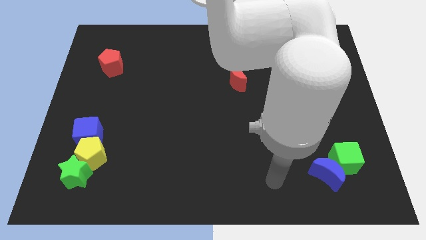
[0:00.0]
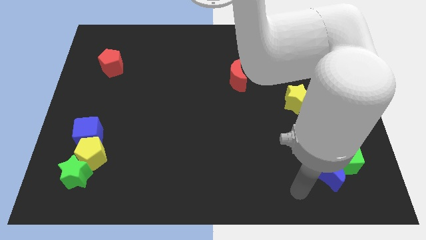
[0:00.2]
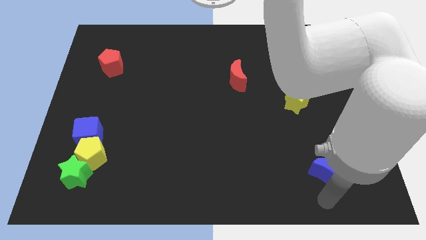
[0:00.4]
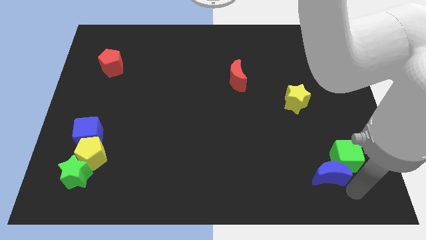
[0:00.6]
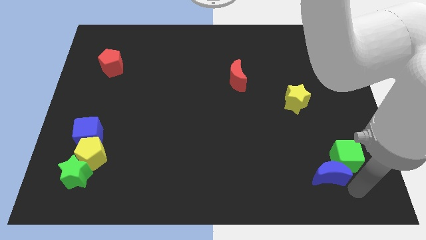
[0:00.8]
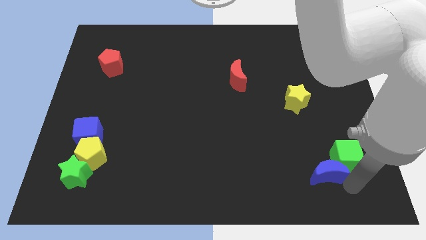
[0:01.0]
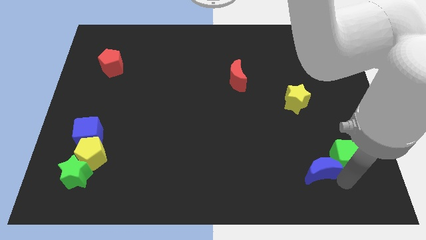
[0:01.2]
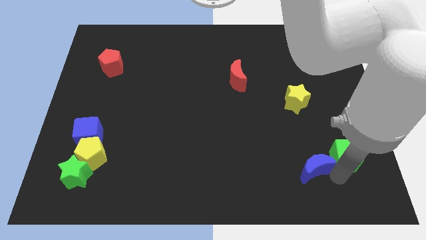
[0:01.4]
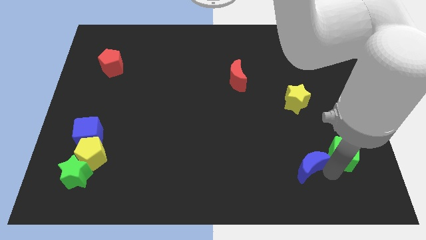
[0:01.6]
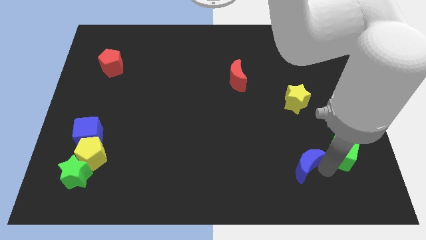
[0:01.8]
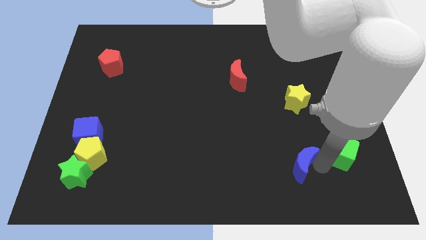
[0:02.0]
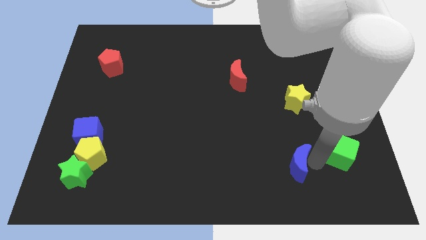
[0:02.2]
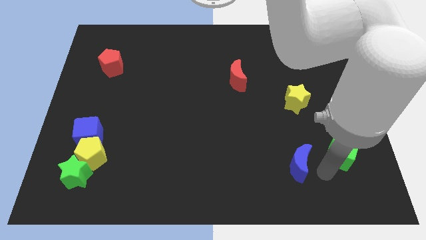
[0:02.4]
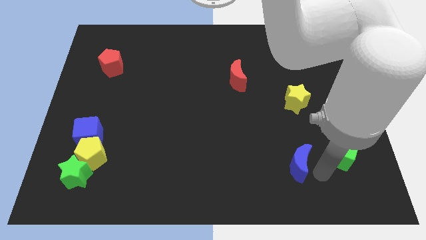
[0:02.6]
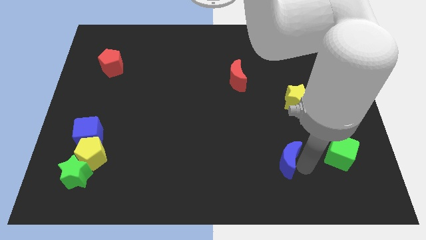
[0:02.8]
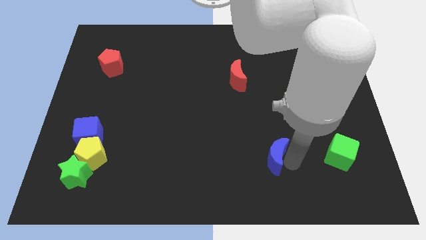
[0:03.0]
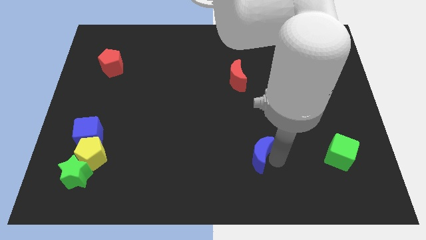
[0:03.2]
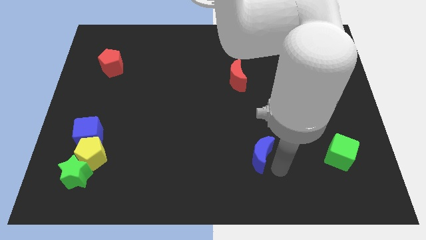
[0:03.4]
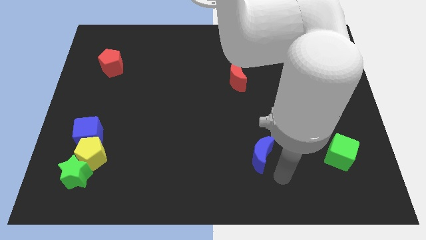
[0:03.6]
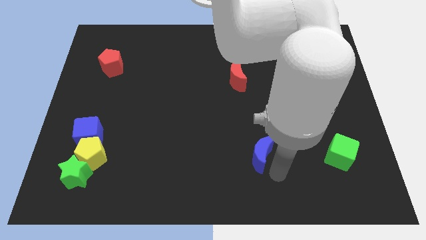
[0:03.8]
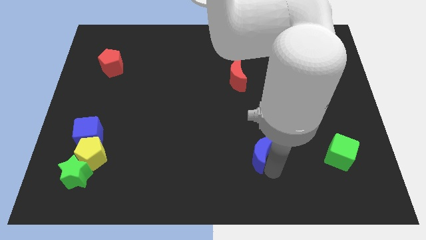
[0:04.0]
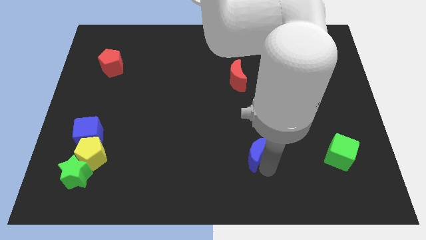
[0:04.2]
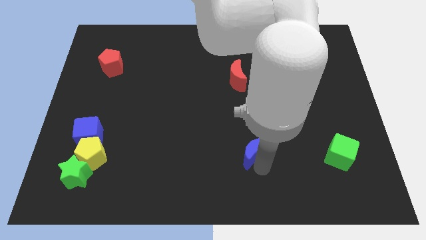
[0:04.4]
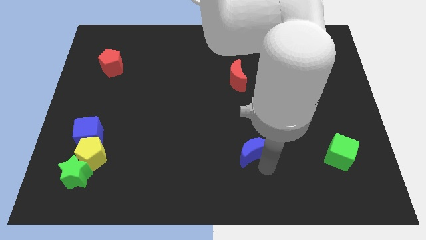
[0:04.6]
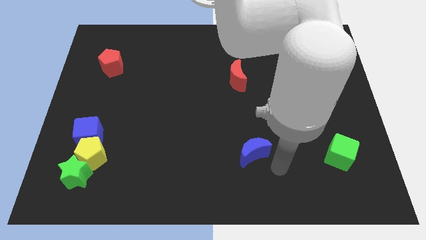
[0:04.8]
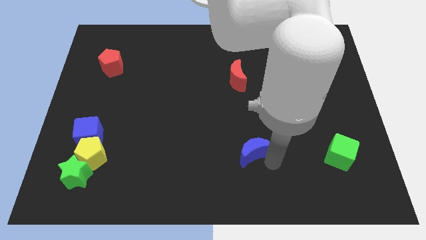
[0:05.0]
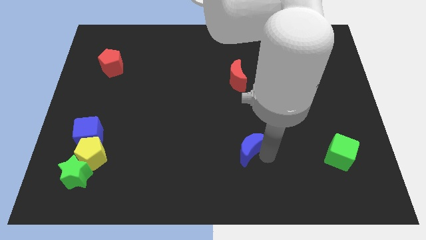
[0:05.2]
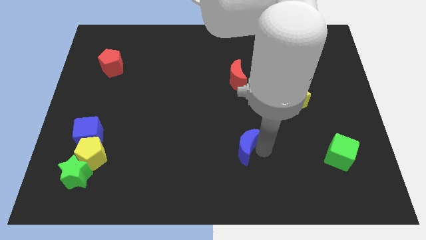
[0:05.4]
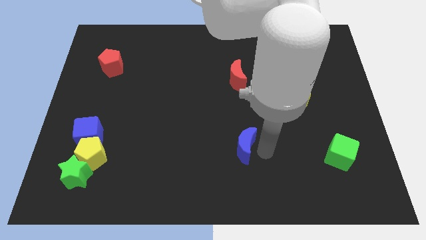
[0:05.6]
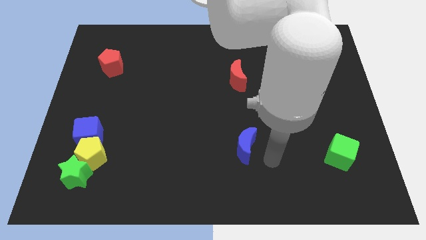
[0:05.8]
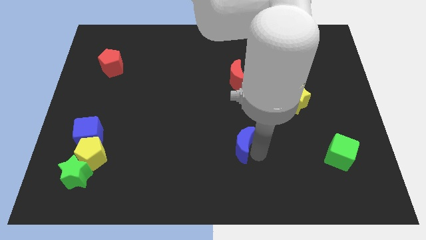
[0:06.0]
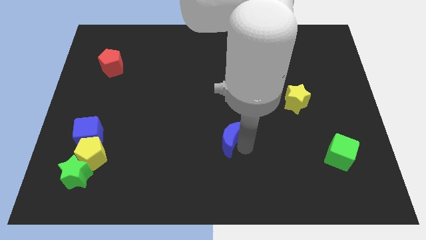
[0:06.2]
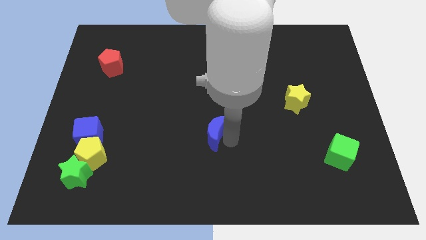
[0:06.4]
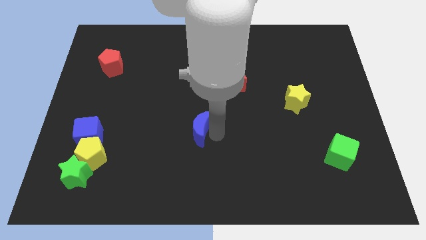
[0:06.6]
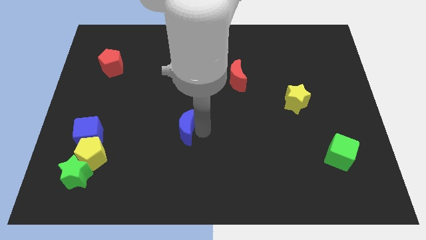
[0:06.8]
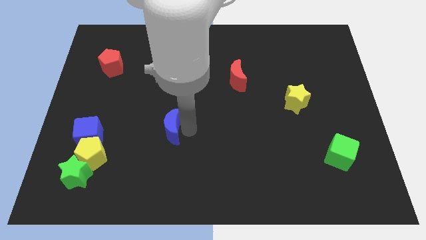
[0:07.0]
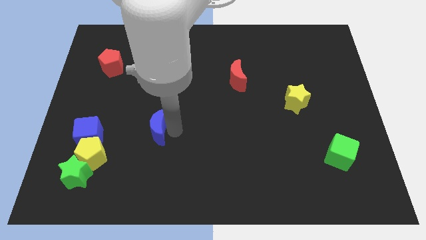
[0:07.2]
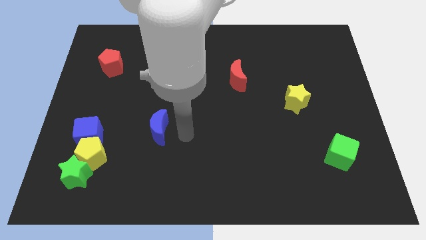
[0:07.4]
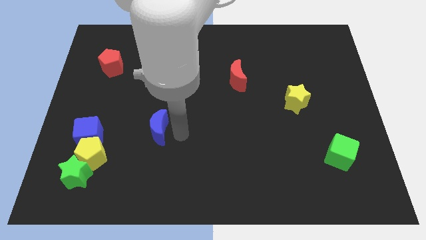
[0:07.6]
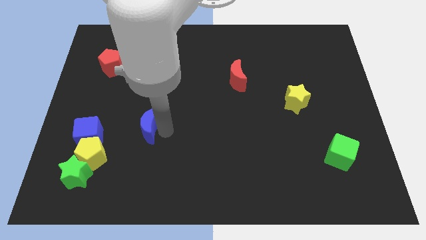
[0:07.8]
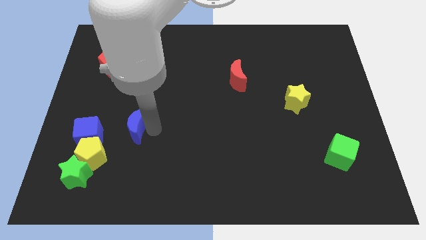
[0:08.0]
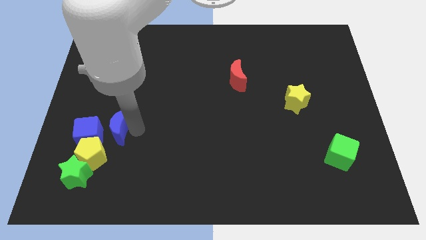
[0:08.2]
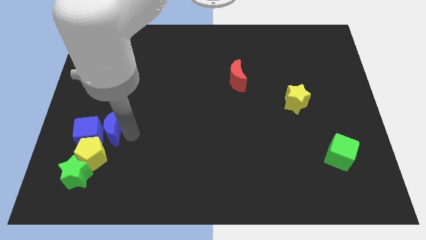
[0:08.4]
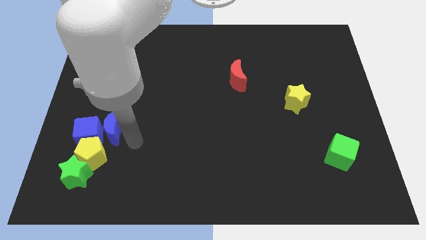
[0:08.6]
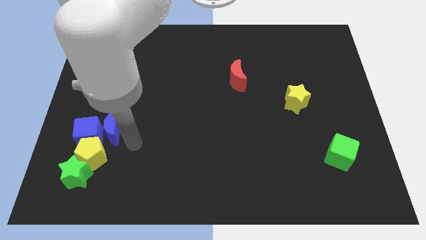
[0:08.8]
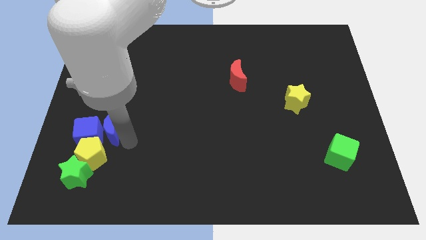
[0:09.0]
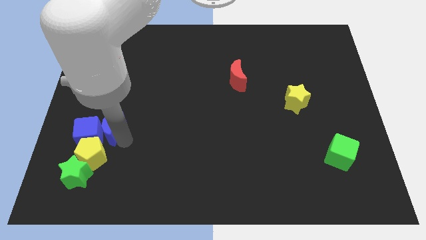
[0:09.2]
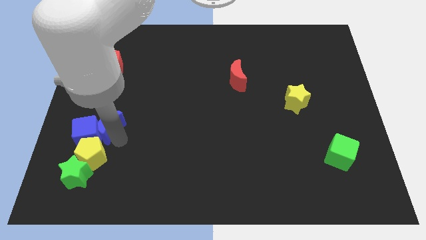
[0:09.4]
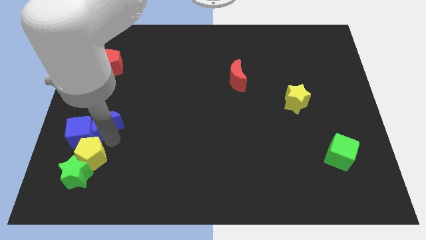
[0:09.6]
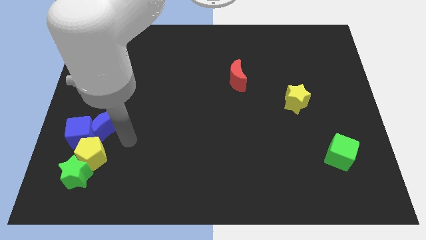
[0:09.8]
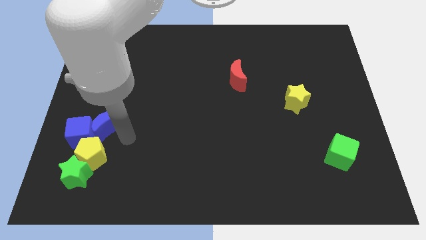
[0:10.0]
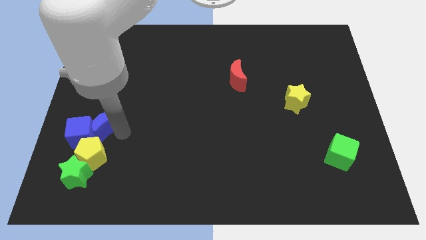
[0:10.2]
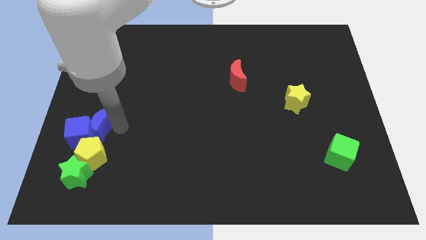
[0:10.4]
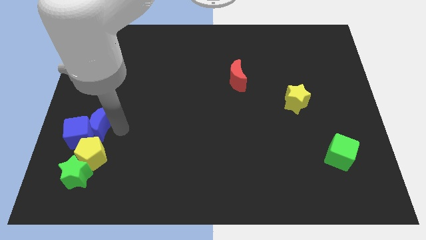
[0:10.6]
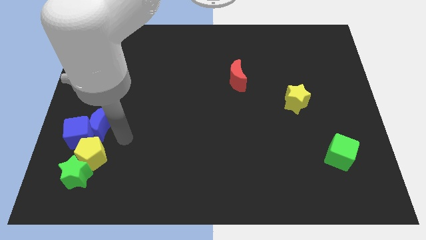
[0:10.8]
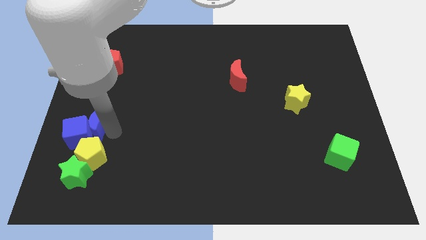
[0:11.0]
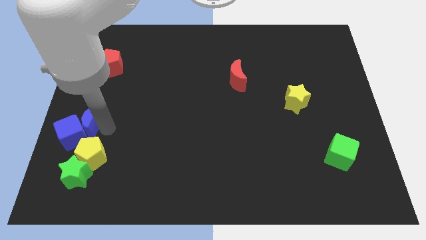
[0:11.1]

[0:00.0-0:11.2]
slide the blue moon to the center left
